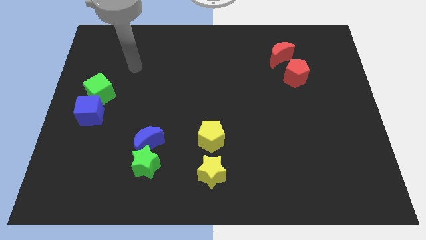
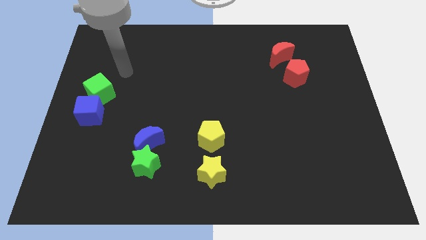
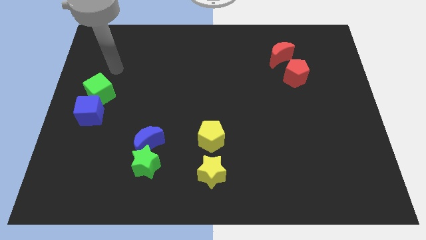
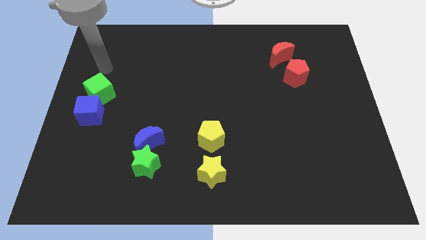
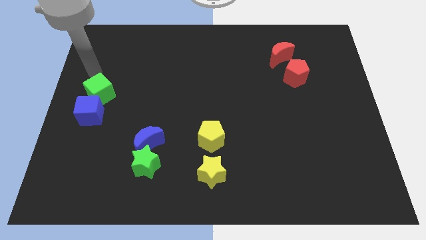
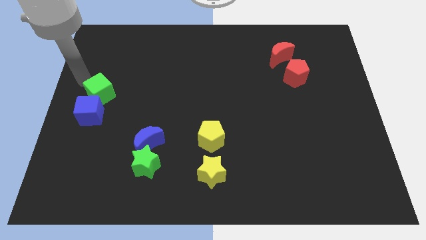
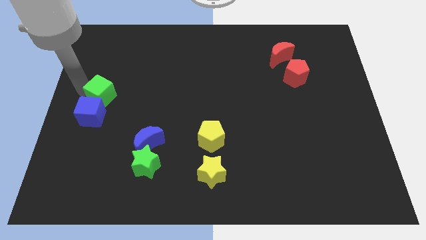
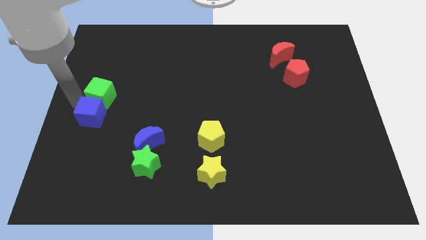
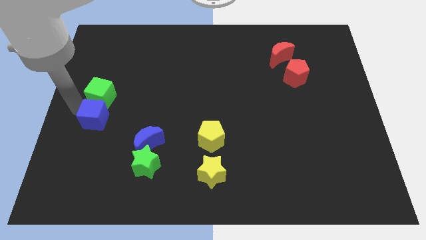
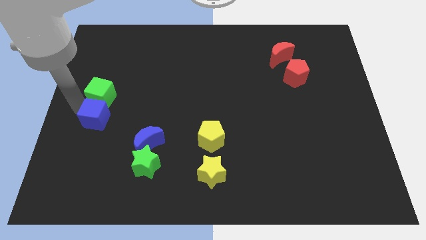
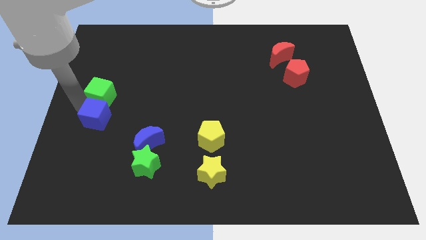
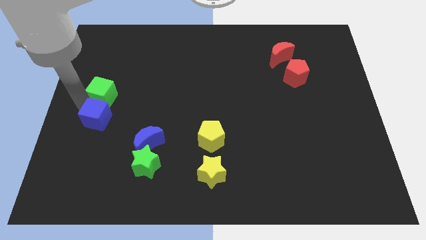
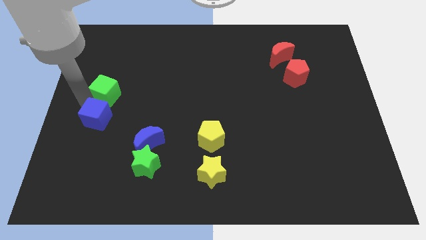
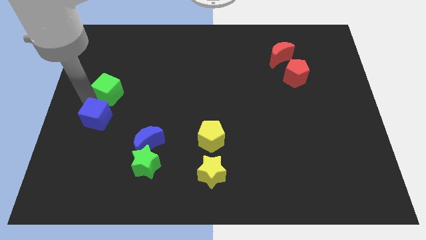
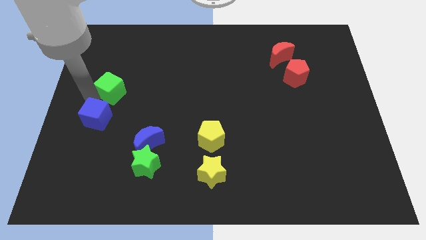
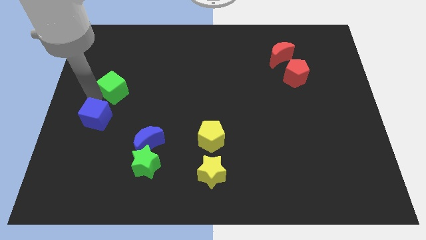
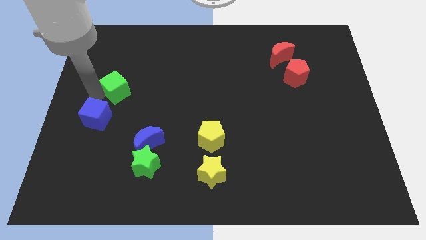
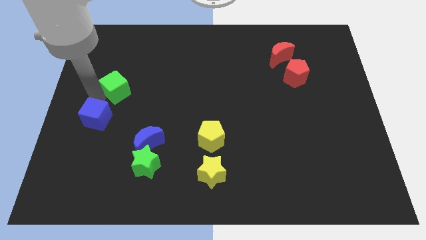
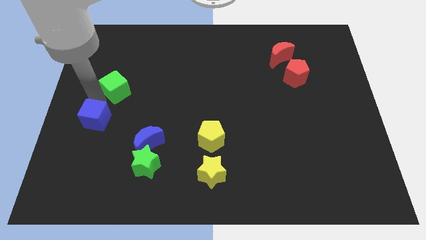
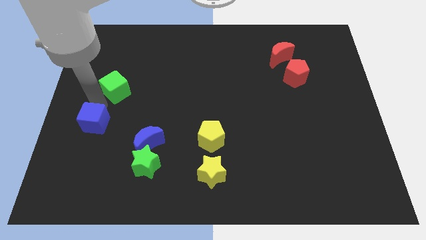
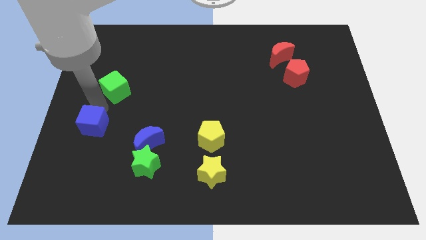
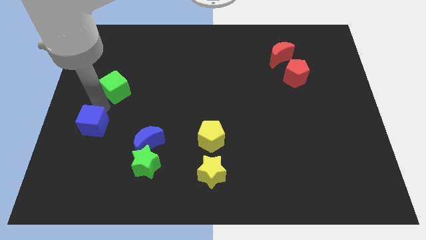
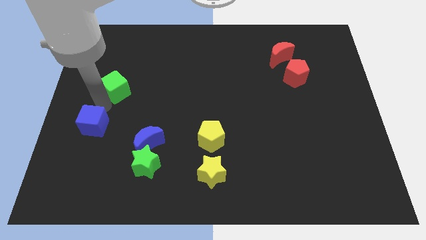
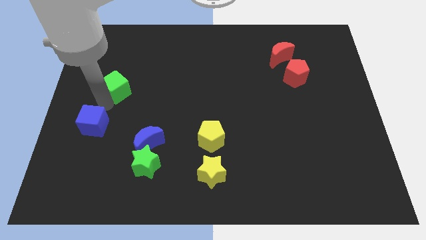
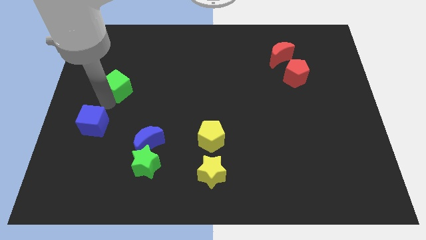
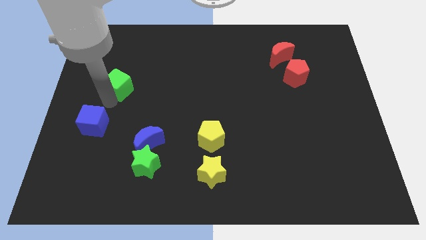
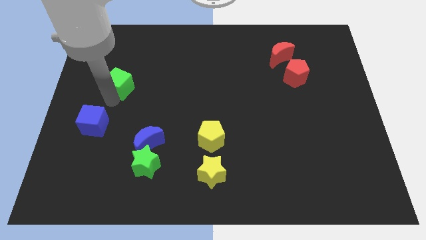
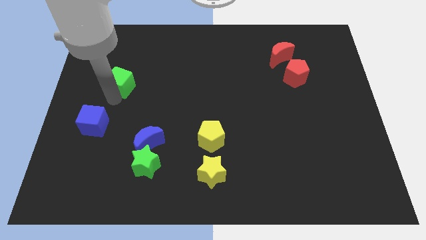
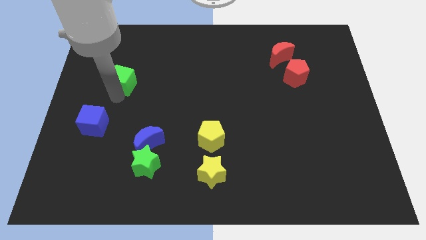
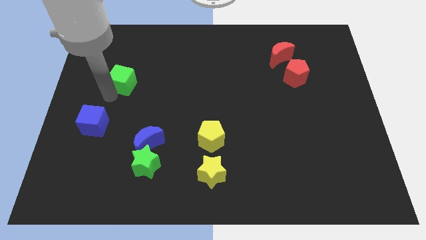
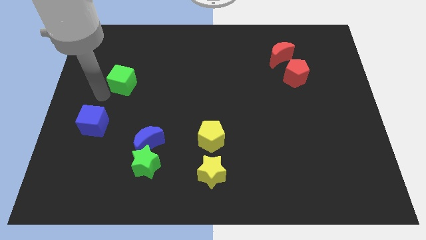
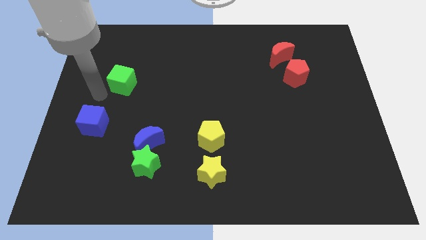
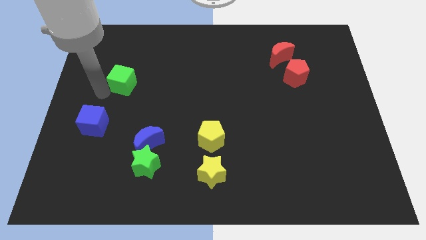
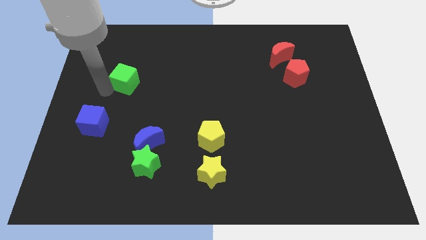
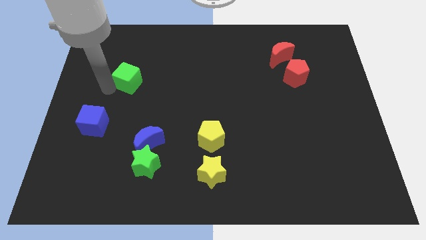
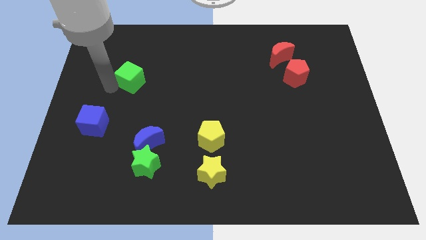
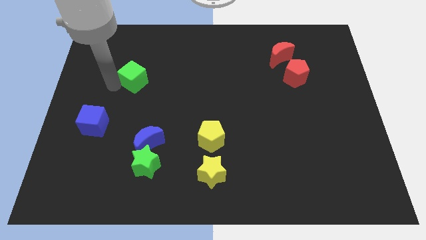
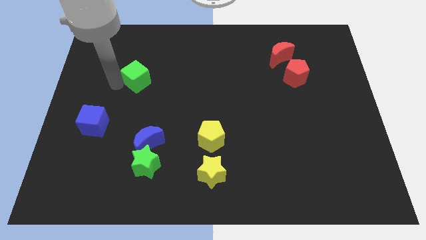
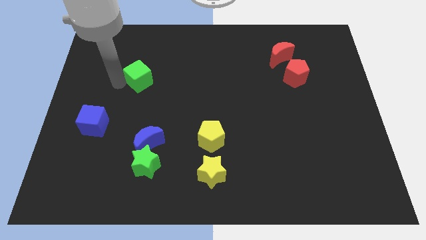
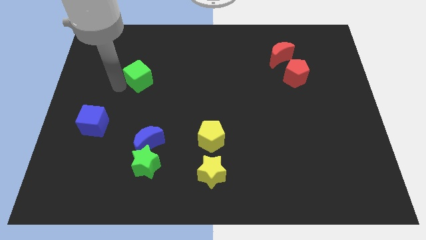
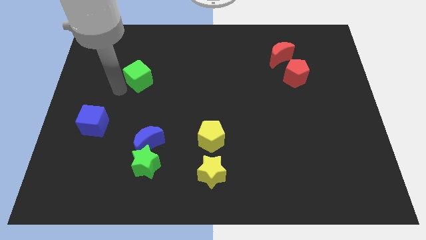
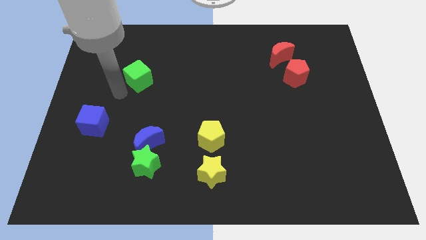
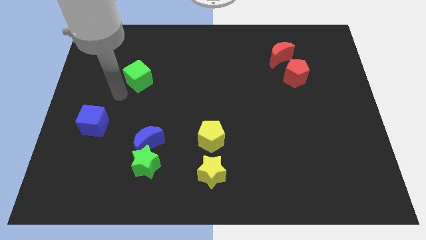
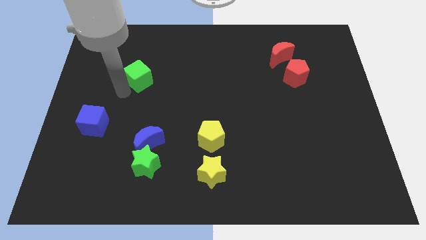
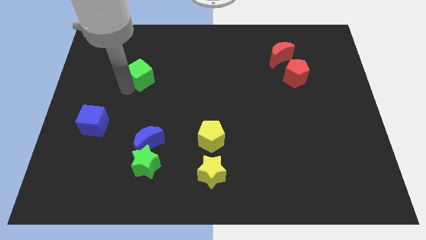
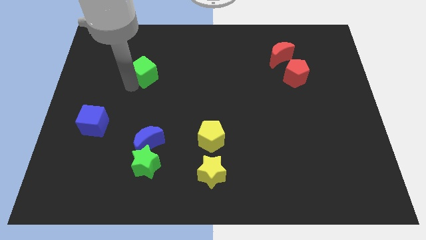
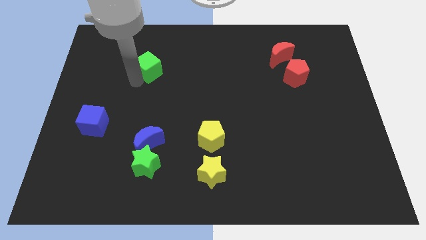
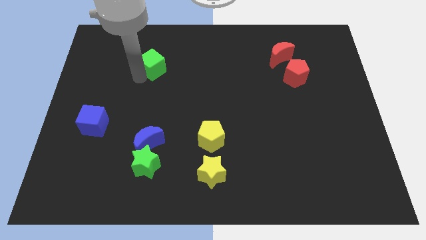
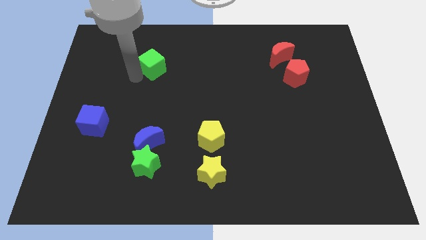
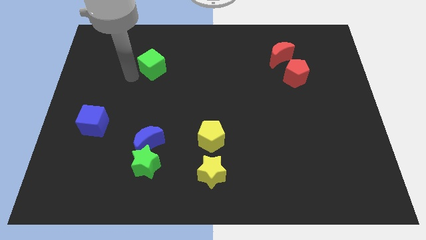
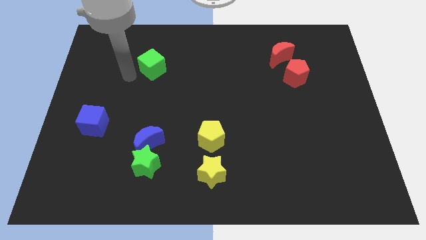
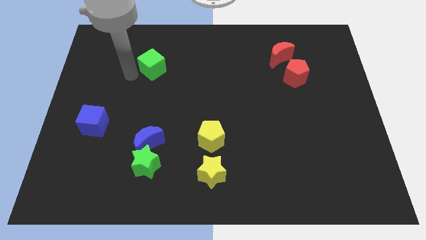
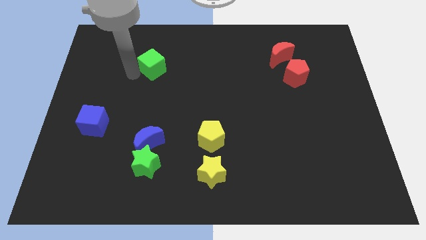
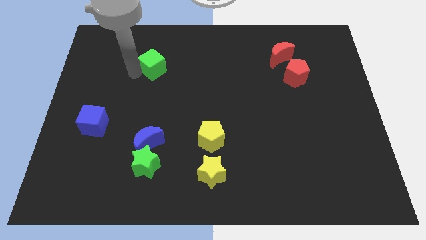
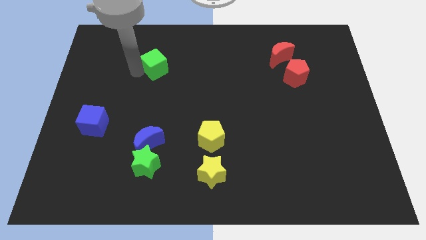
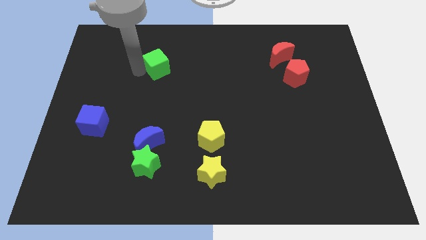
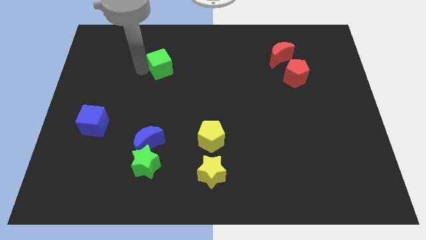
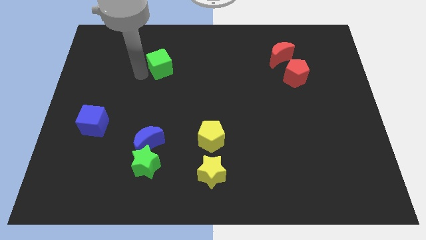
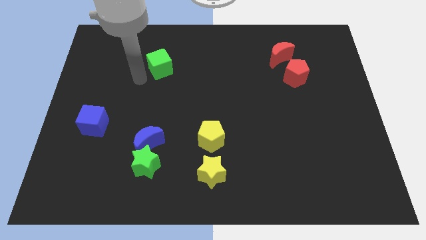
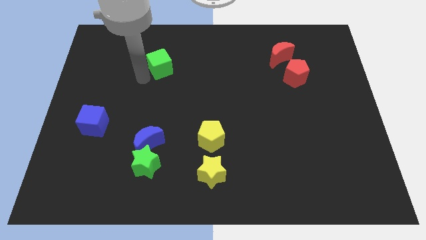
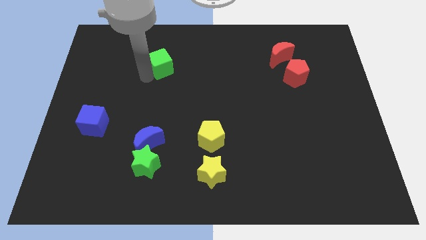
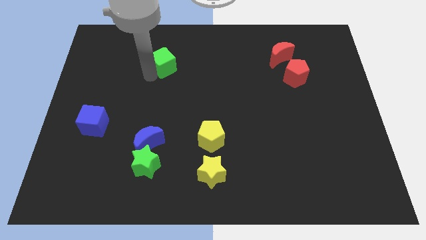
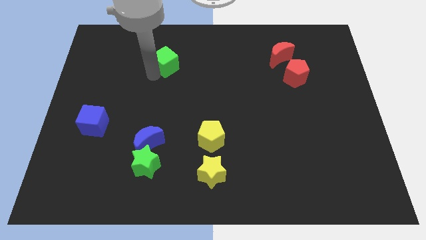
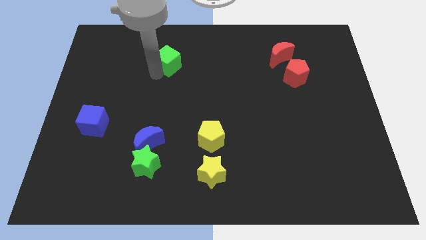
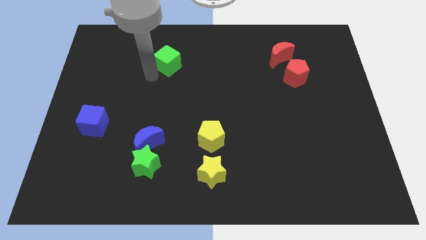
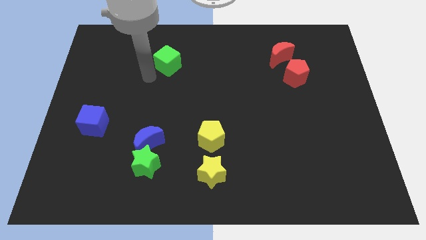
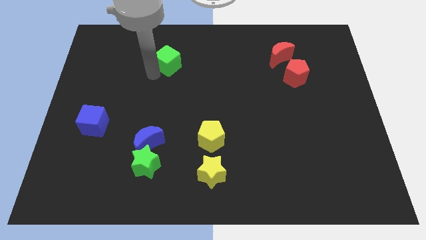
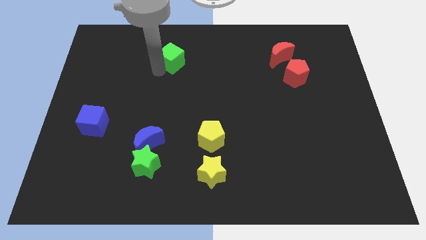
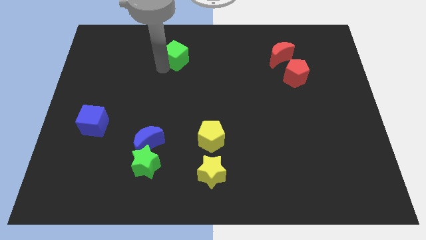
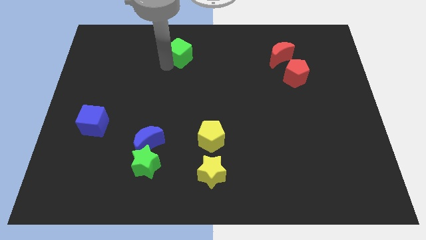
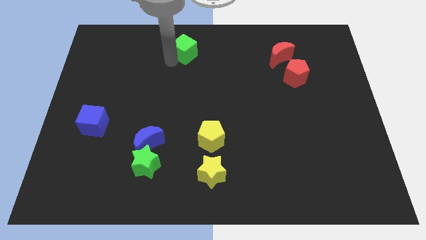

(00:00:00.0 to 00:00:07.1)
put the green cube to the top
